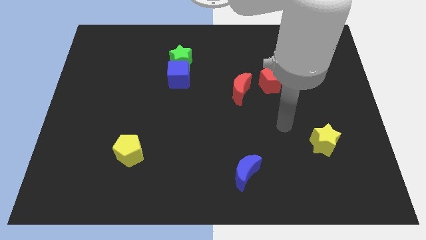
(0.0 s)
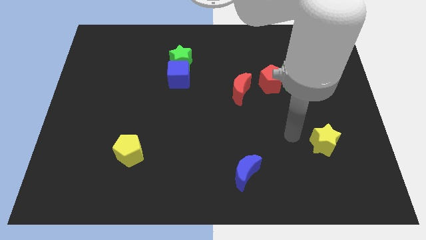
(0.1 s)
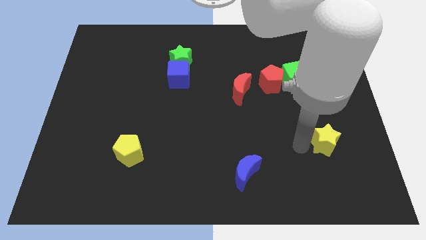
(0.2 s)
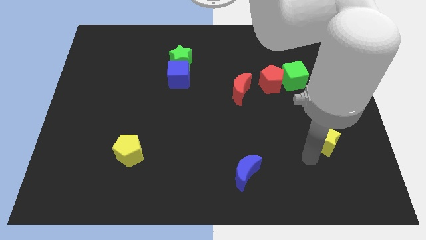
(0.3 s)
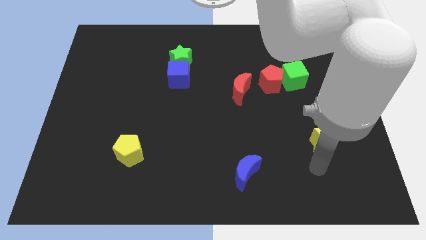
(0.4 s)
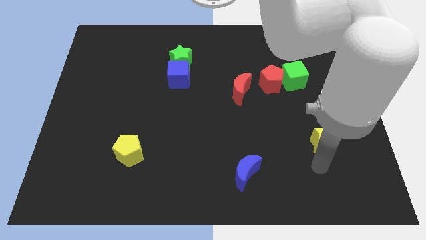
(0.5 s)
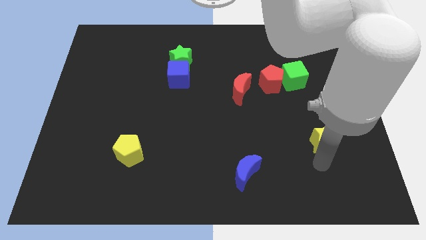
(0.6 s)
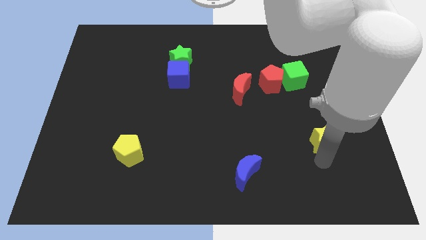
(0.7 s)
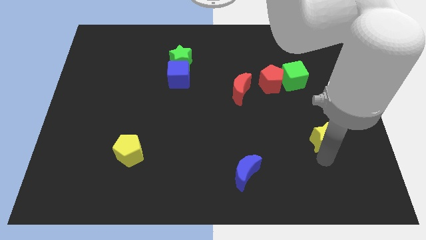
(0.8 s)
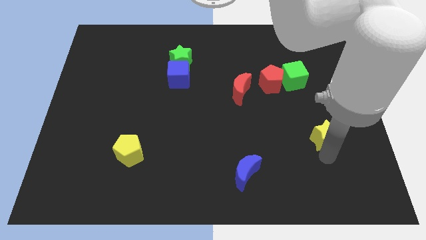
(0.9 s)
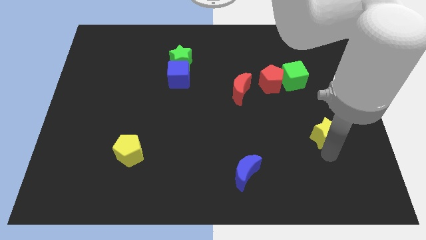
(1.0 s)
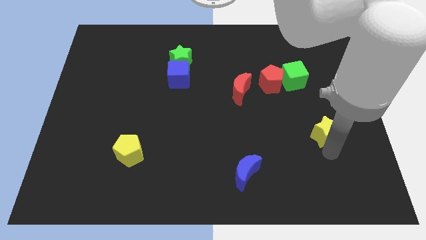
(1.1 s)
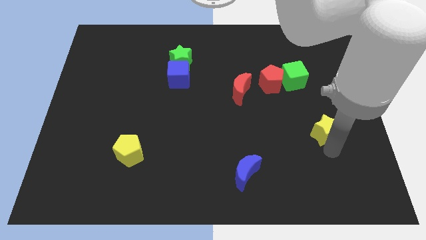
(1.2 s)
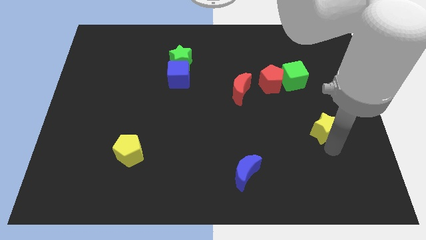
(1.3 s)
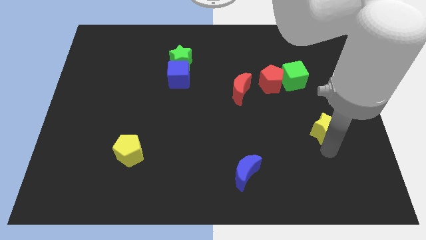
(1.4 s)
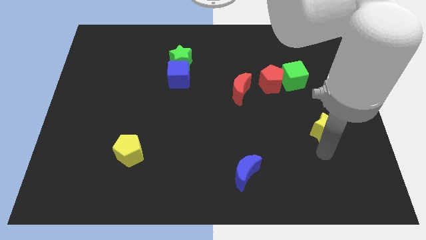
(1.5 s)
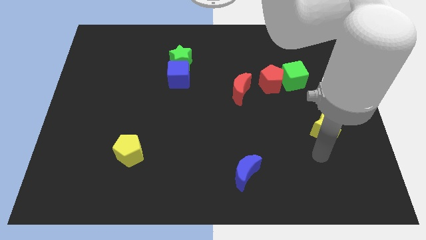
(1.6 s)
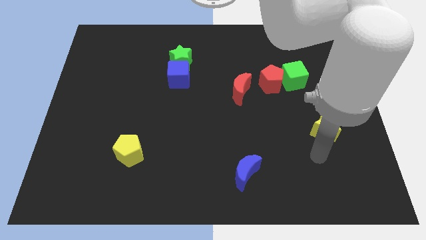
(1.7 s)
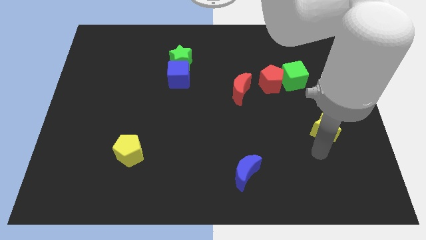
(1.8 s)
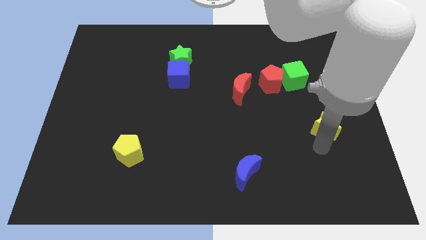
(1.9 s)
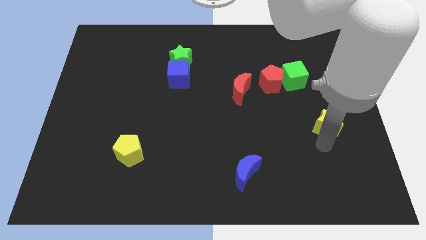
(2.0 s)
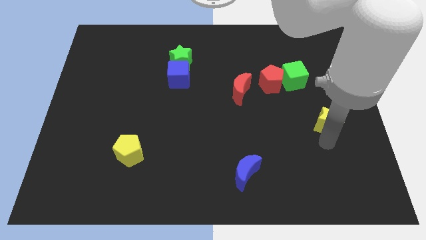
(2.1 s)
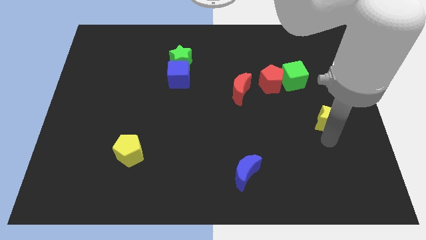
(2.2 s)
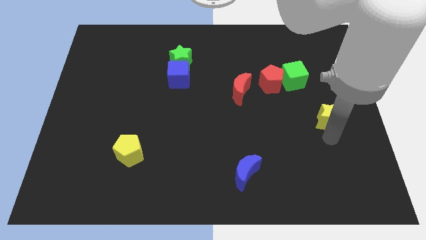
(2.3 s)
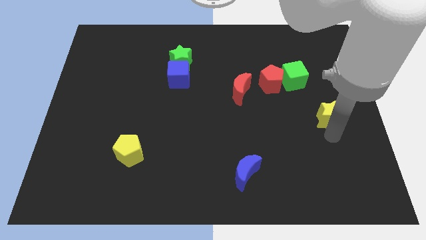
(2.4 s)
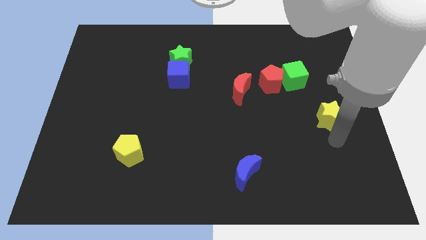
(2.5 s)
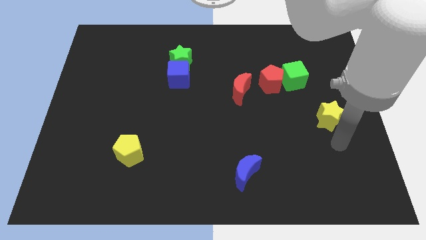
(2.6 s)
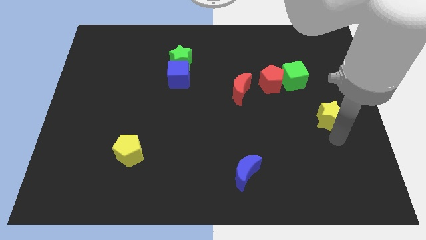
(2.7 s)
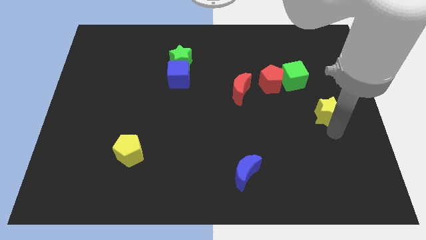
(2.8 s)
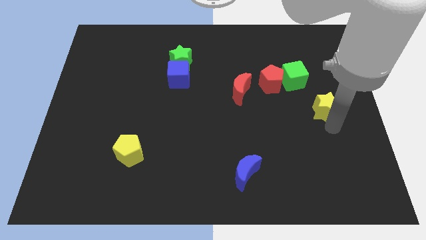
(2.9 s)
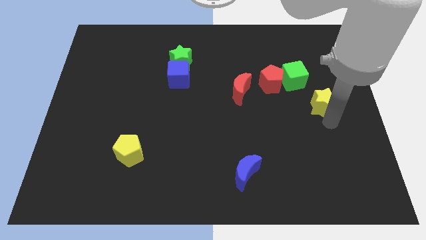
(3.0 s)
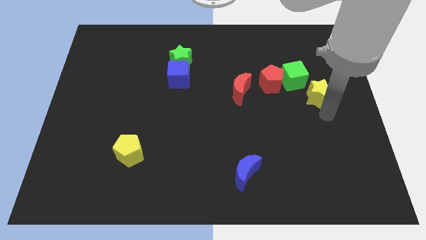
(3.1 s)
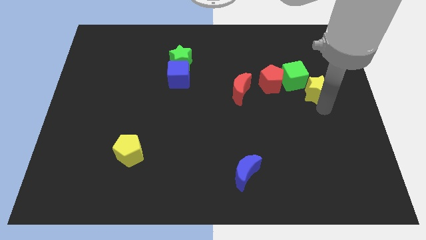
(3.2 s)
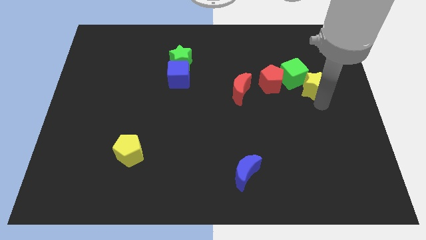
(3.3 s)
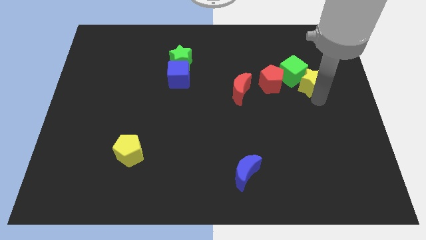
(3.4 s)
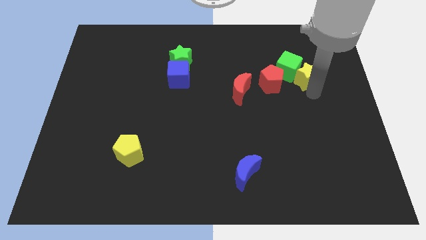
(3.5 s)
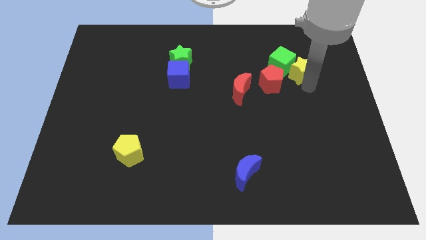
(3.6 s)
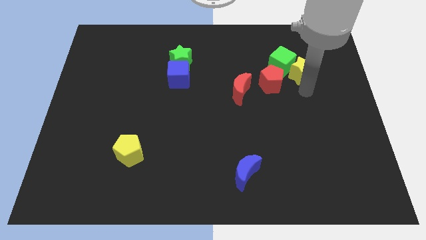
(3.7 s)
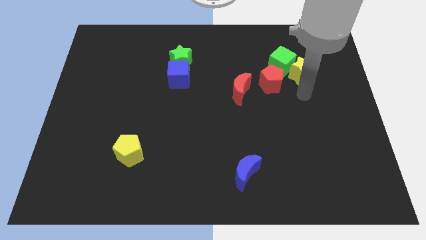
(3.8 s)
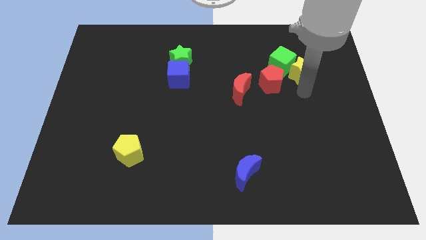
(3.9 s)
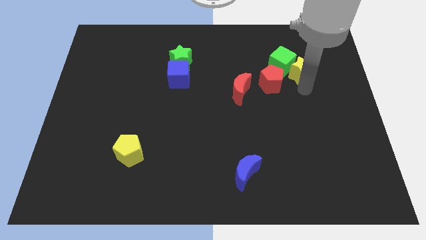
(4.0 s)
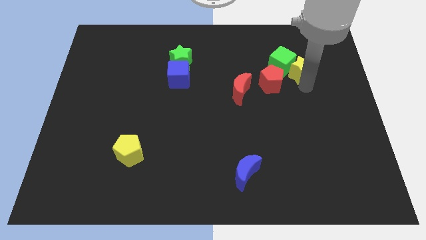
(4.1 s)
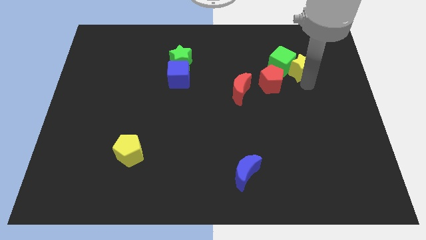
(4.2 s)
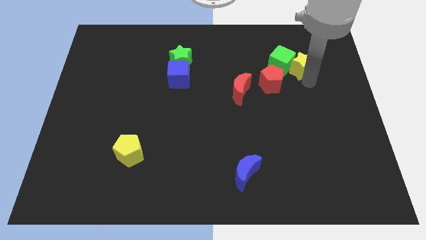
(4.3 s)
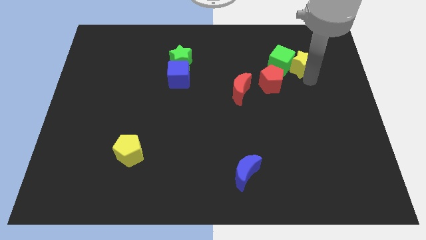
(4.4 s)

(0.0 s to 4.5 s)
push the yellow star diagonally up and to the right of the green cube

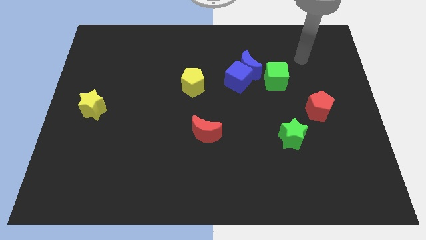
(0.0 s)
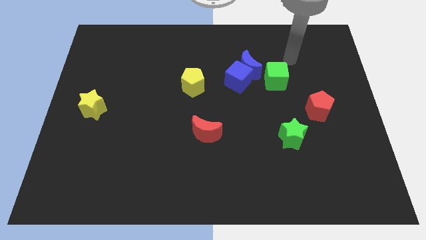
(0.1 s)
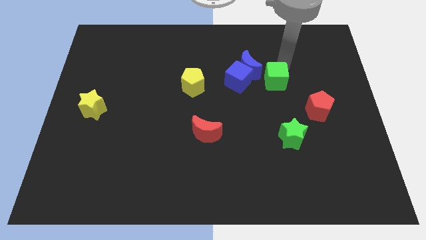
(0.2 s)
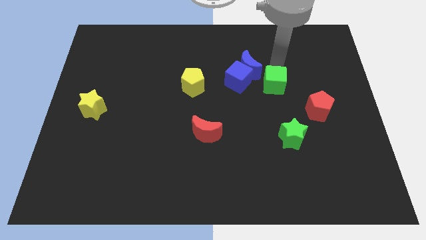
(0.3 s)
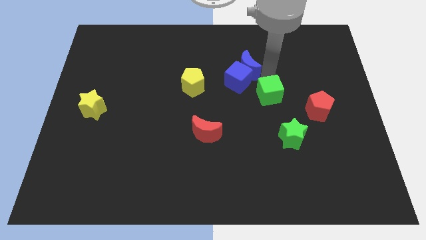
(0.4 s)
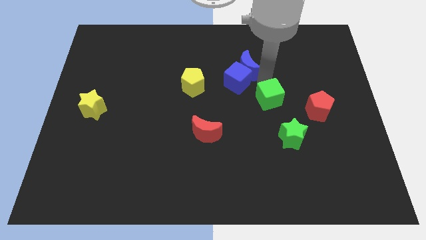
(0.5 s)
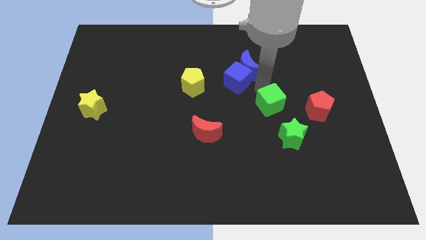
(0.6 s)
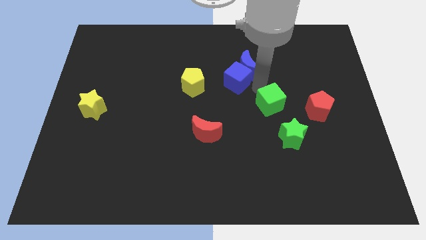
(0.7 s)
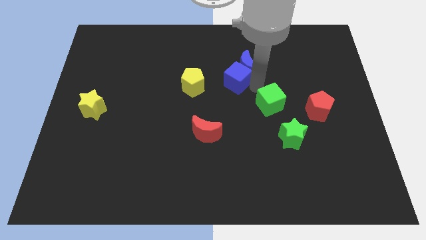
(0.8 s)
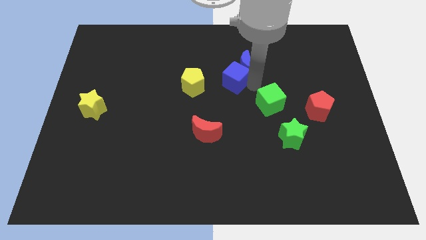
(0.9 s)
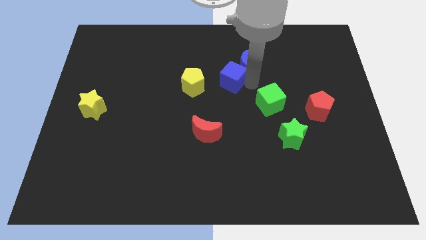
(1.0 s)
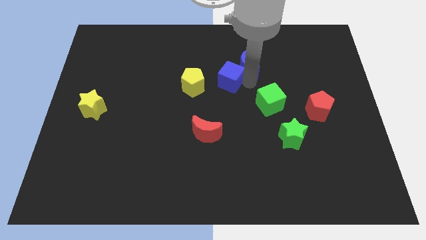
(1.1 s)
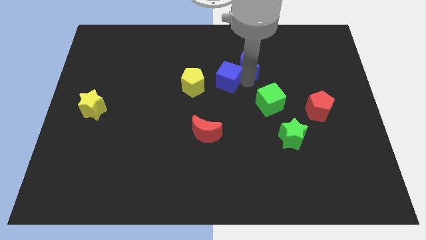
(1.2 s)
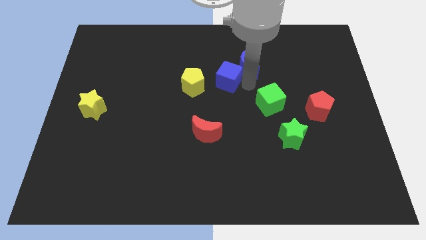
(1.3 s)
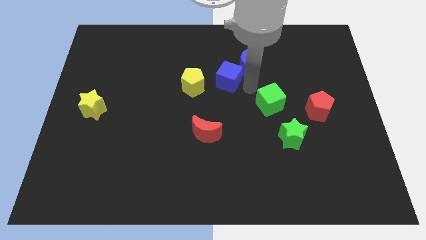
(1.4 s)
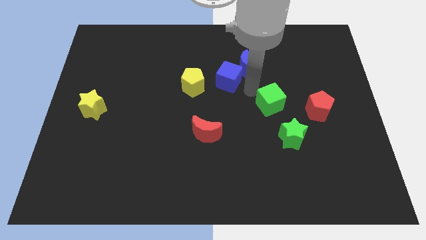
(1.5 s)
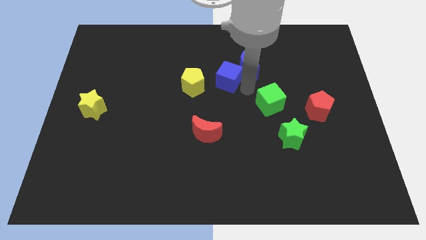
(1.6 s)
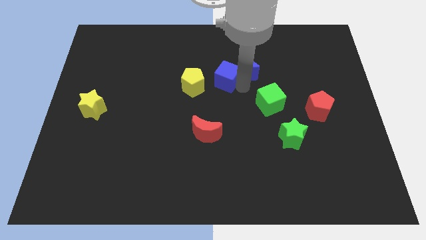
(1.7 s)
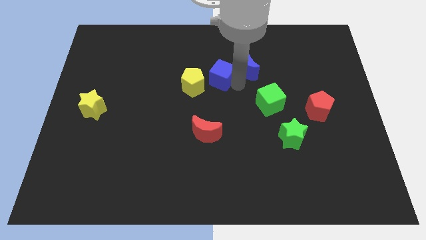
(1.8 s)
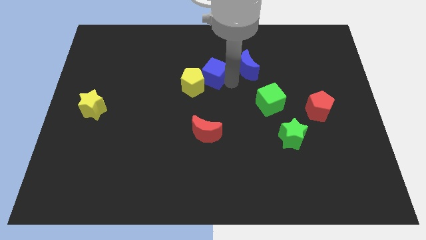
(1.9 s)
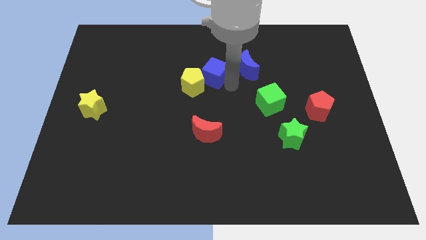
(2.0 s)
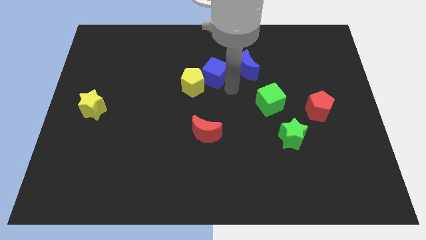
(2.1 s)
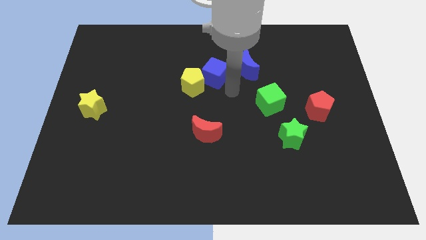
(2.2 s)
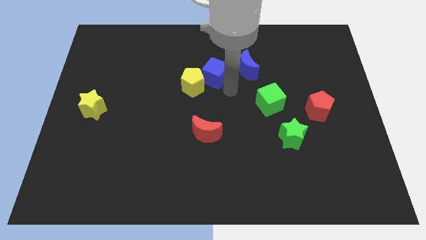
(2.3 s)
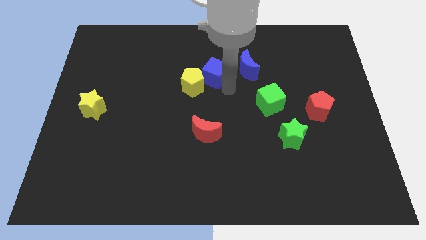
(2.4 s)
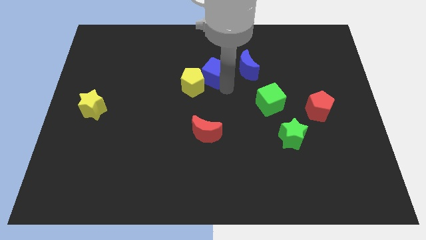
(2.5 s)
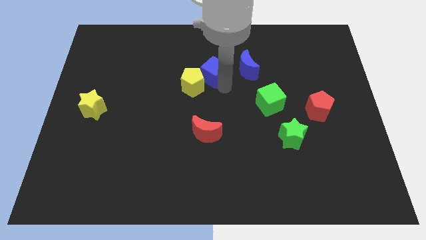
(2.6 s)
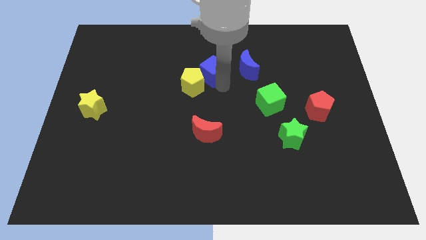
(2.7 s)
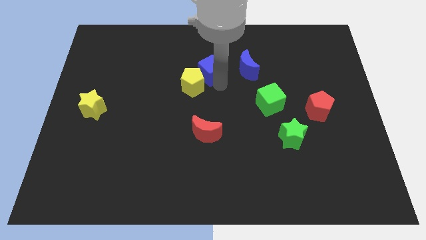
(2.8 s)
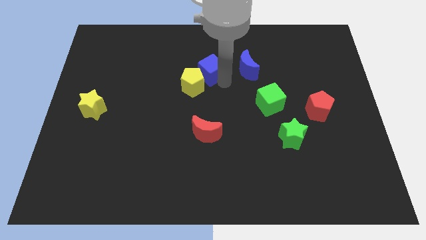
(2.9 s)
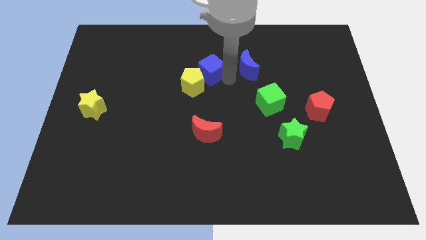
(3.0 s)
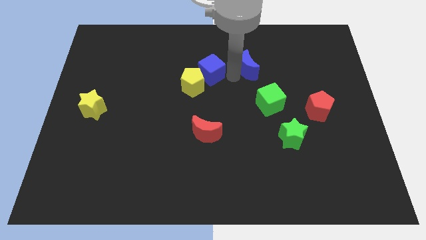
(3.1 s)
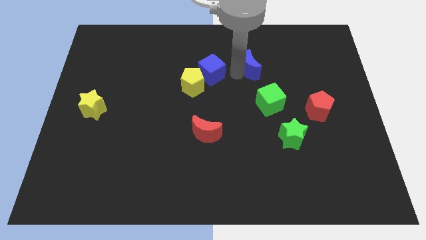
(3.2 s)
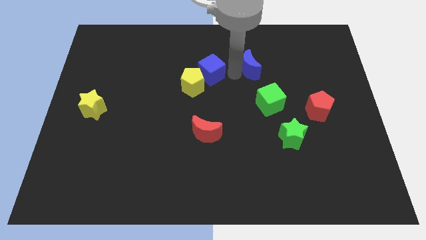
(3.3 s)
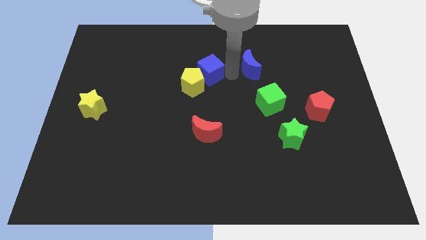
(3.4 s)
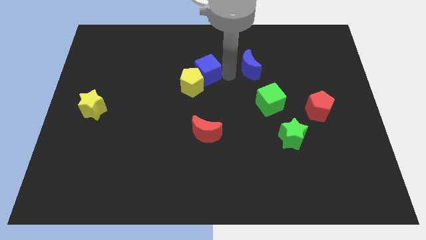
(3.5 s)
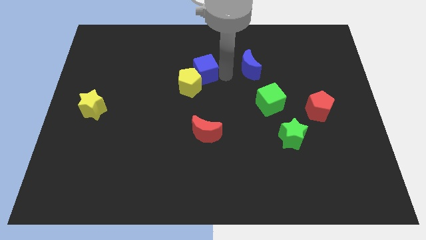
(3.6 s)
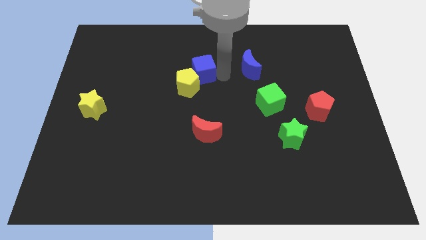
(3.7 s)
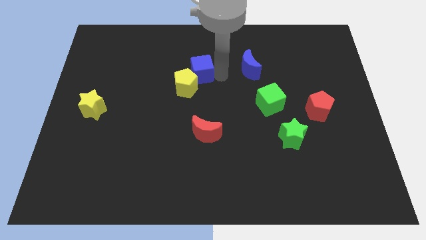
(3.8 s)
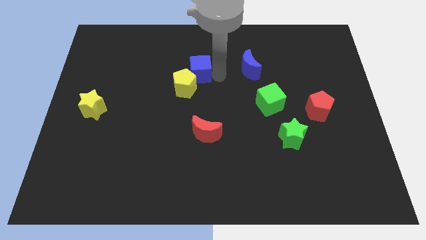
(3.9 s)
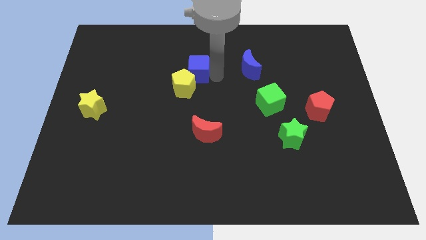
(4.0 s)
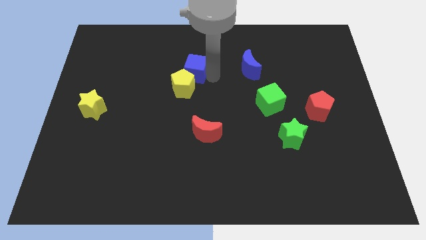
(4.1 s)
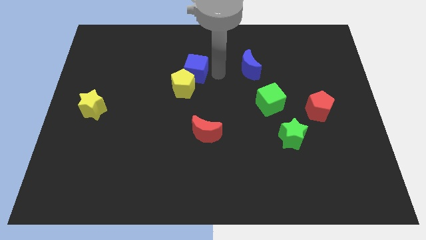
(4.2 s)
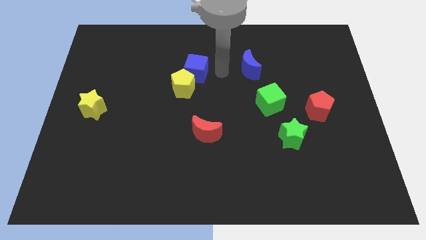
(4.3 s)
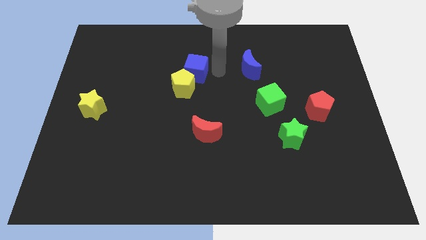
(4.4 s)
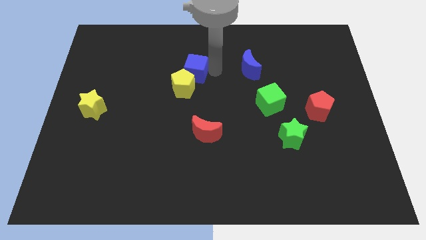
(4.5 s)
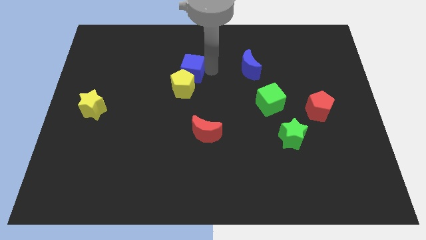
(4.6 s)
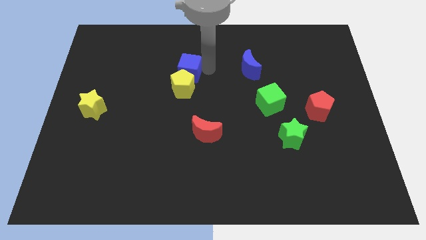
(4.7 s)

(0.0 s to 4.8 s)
slide the blue cube diagonally up and to the left of the yellow pentagon
